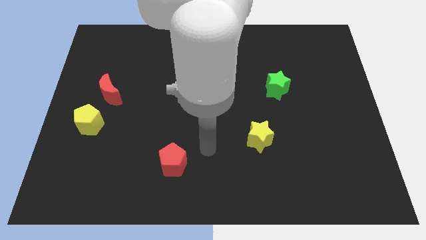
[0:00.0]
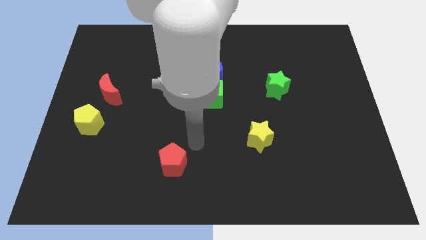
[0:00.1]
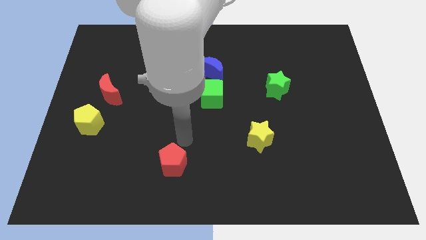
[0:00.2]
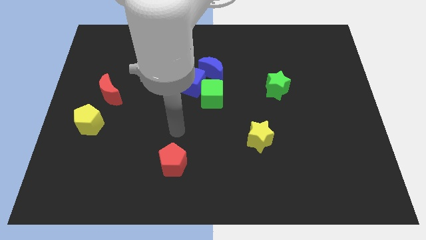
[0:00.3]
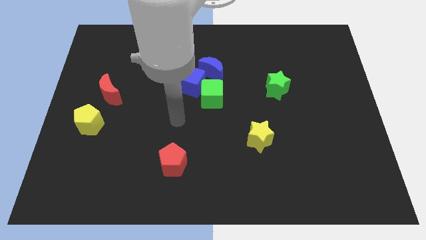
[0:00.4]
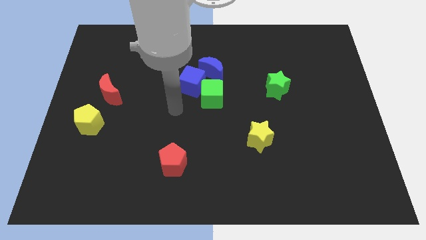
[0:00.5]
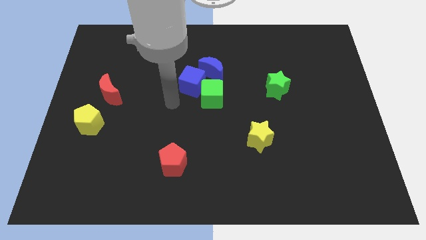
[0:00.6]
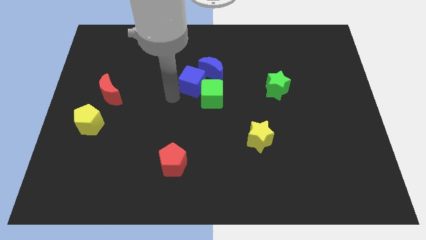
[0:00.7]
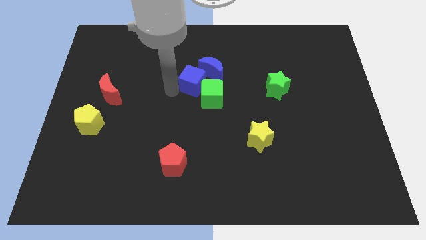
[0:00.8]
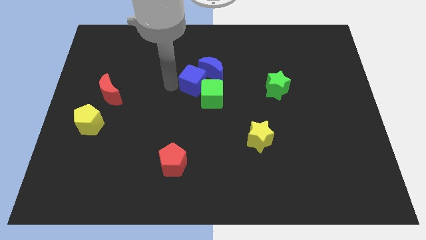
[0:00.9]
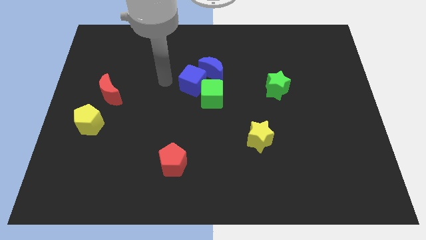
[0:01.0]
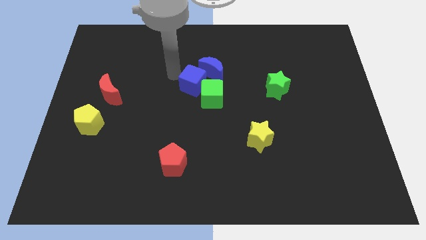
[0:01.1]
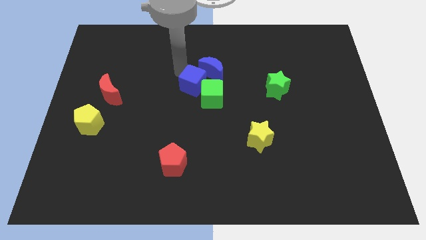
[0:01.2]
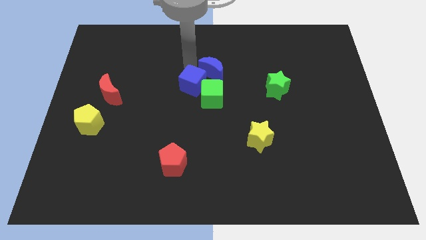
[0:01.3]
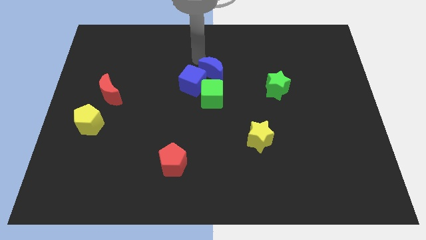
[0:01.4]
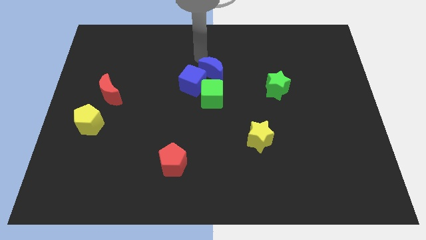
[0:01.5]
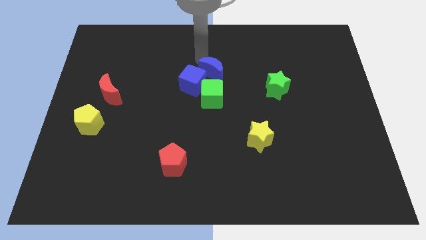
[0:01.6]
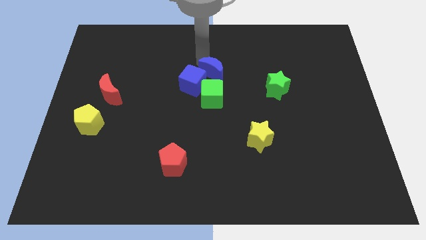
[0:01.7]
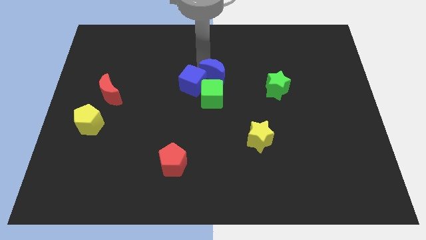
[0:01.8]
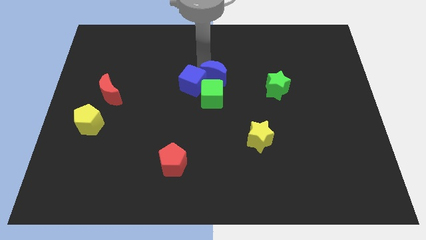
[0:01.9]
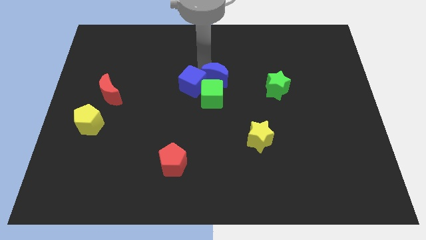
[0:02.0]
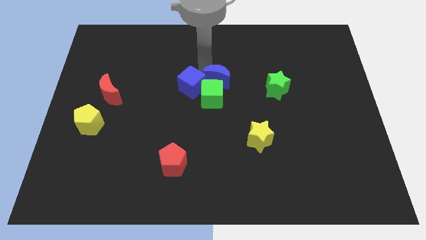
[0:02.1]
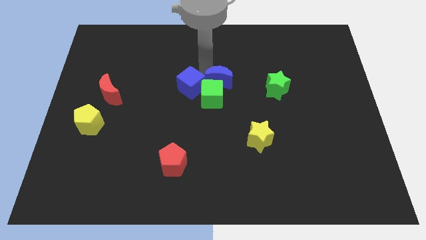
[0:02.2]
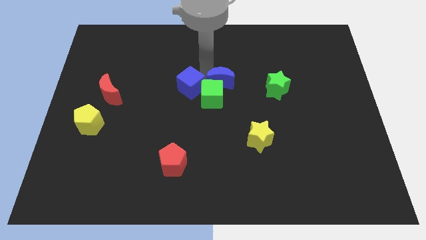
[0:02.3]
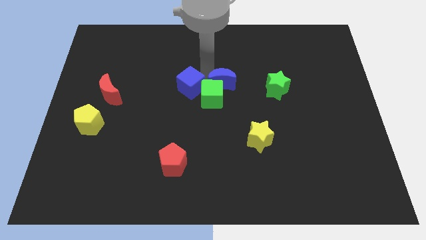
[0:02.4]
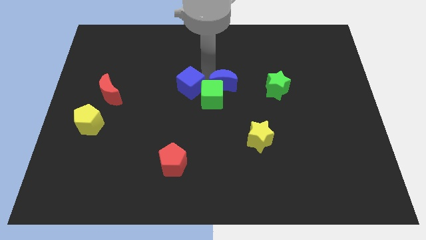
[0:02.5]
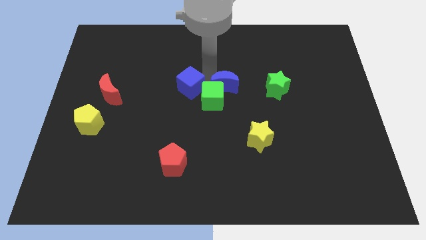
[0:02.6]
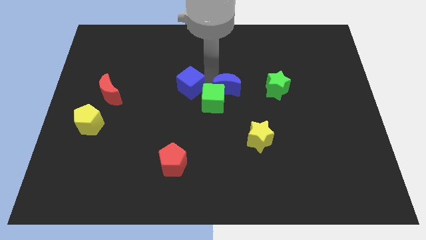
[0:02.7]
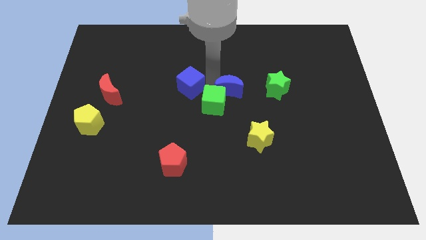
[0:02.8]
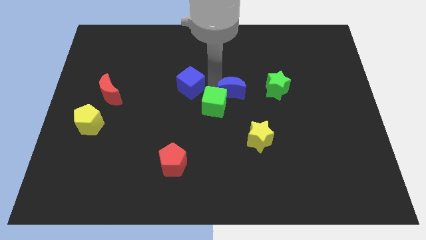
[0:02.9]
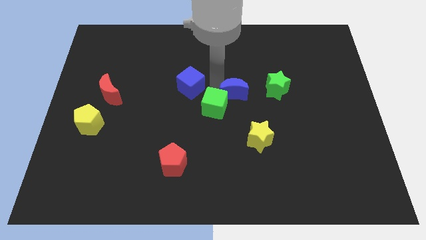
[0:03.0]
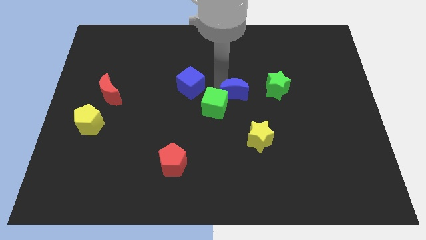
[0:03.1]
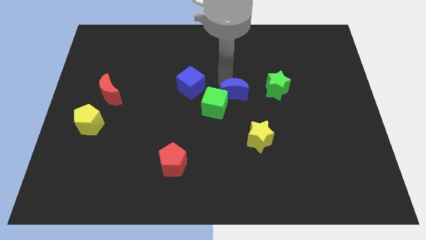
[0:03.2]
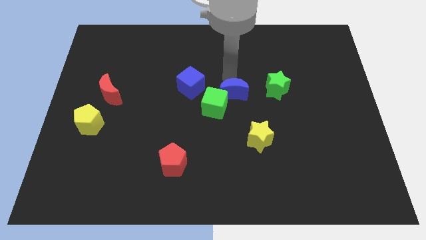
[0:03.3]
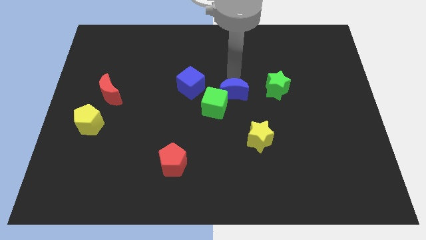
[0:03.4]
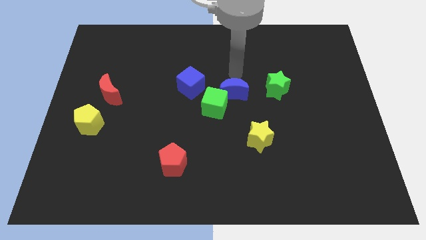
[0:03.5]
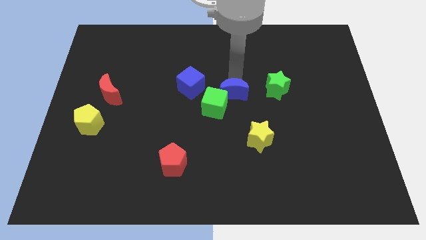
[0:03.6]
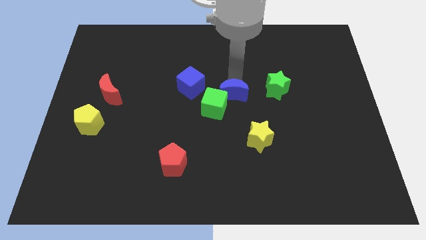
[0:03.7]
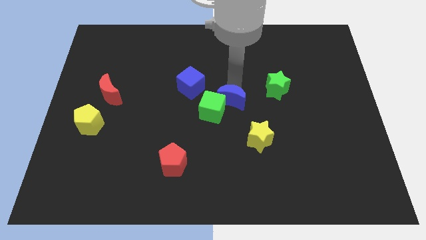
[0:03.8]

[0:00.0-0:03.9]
slightly move the blue moon downwards

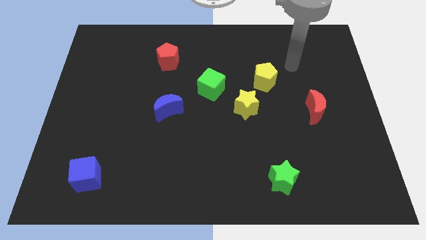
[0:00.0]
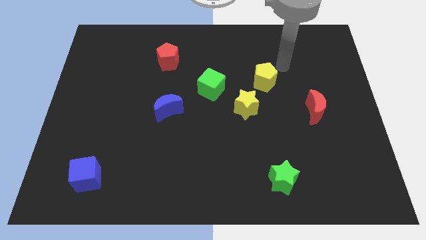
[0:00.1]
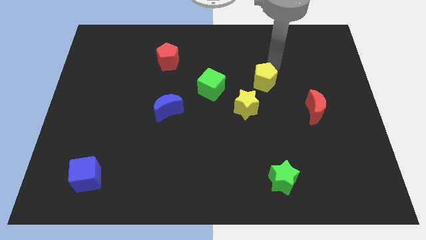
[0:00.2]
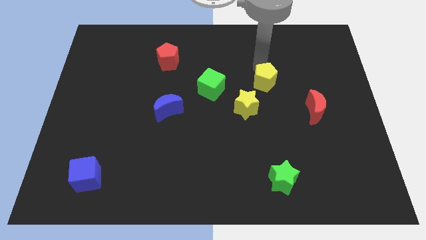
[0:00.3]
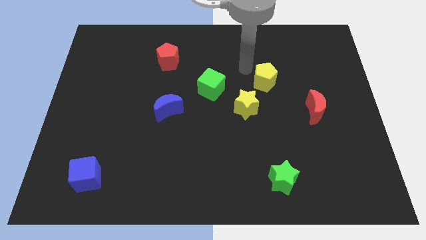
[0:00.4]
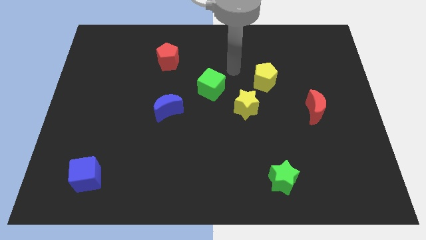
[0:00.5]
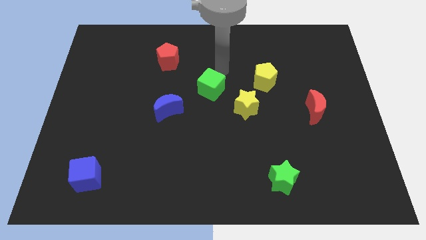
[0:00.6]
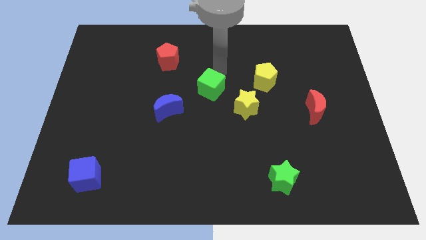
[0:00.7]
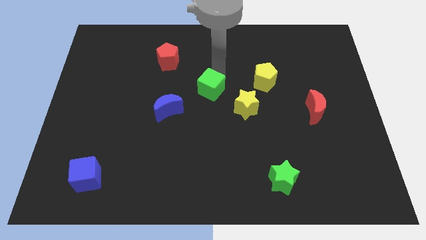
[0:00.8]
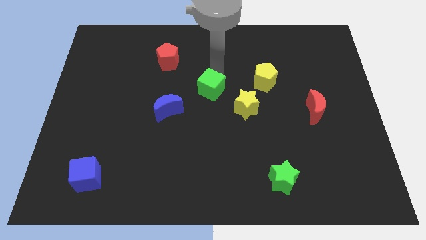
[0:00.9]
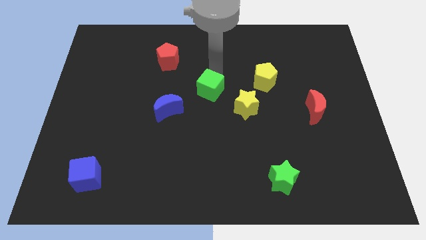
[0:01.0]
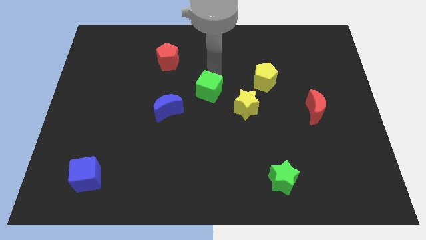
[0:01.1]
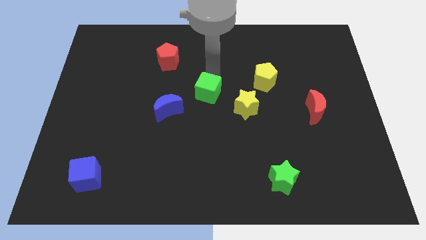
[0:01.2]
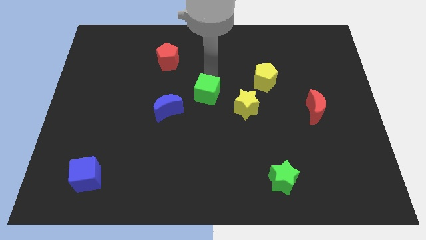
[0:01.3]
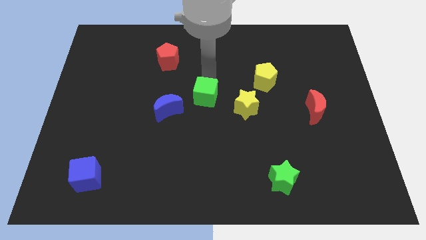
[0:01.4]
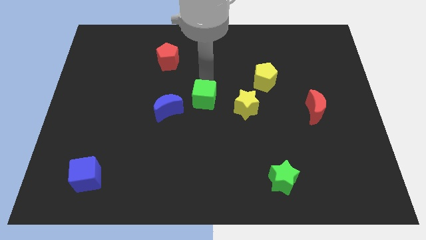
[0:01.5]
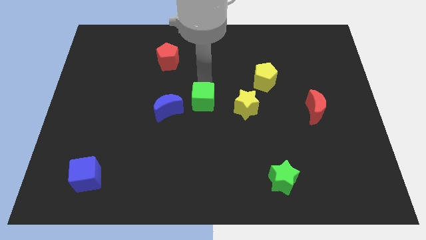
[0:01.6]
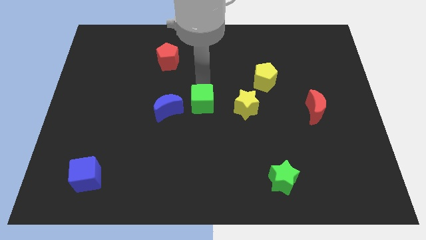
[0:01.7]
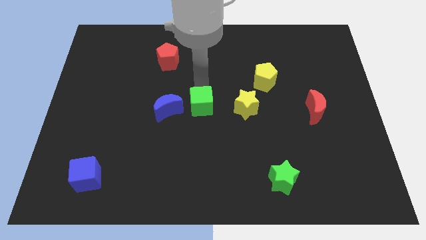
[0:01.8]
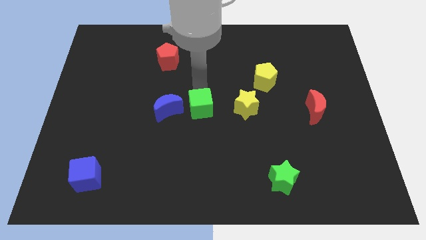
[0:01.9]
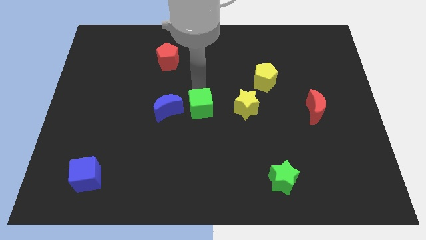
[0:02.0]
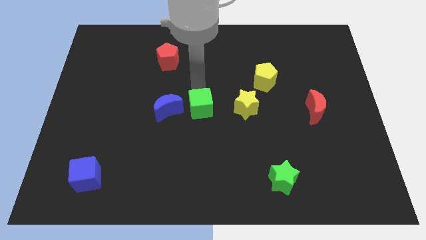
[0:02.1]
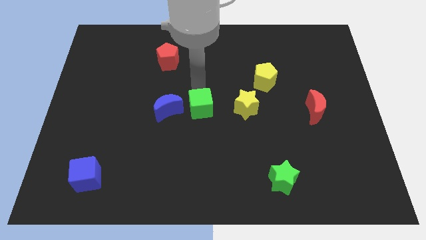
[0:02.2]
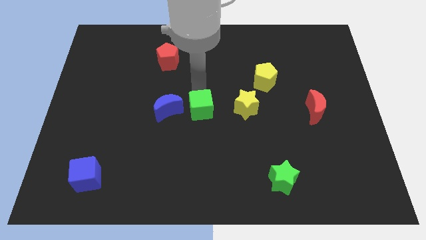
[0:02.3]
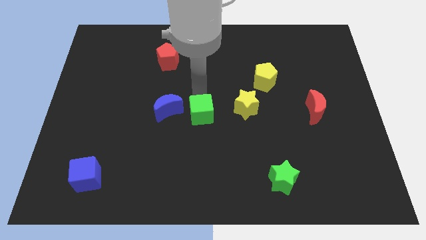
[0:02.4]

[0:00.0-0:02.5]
slightly slide the green cube down

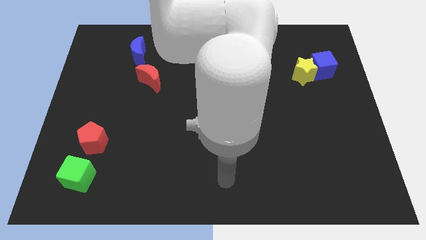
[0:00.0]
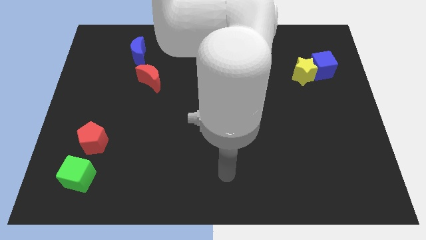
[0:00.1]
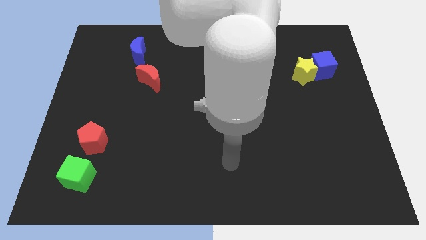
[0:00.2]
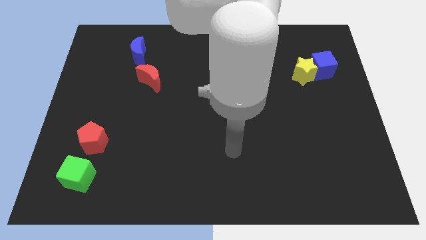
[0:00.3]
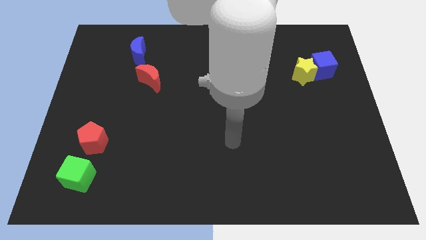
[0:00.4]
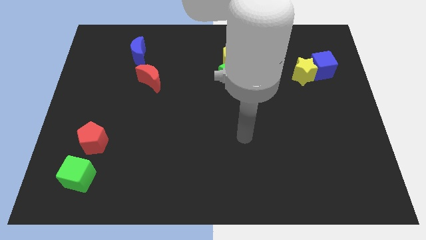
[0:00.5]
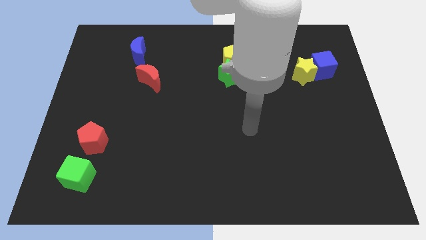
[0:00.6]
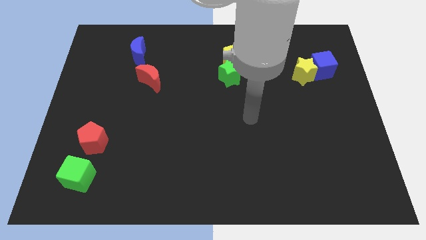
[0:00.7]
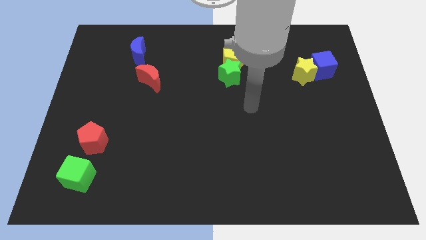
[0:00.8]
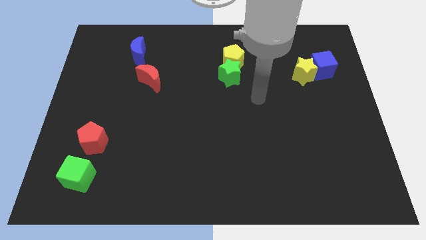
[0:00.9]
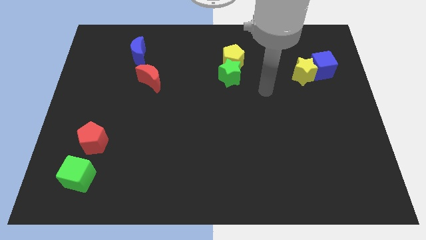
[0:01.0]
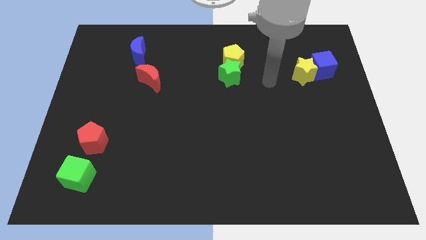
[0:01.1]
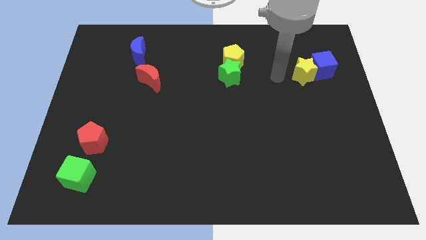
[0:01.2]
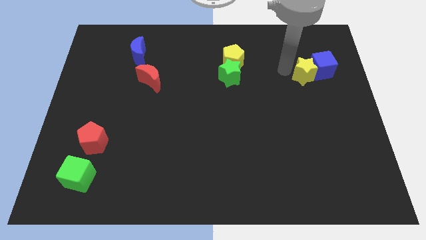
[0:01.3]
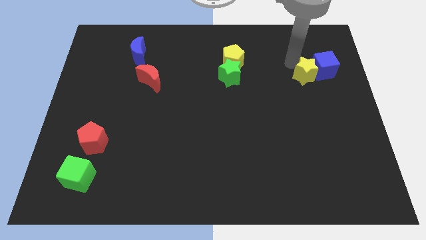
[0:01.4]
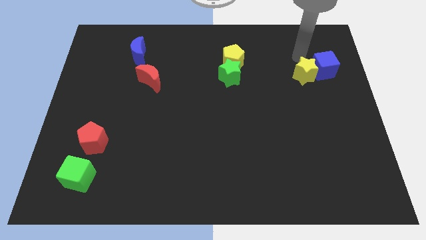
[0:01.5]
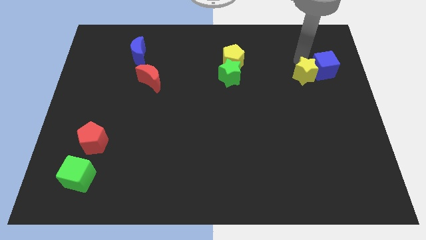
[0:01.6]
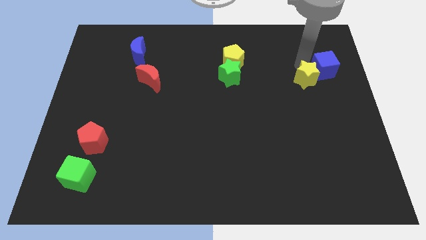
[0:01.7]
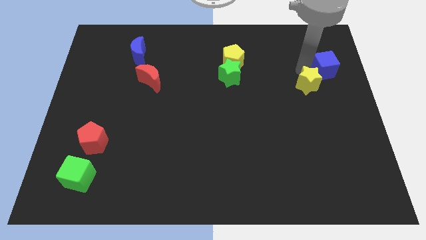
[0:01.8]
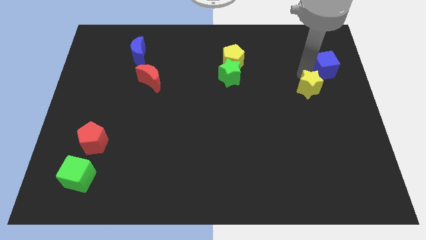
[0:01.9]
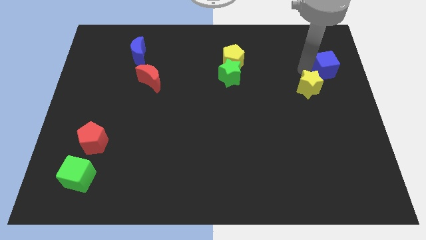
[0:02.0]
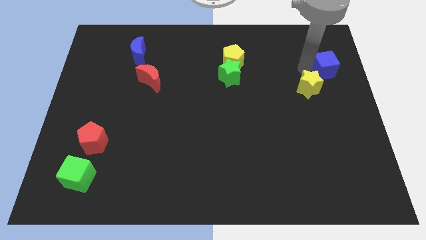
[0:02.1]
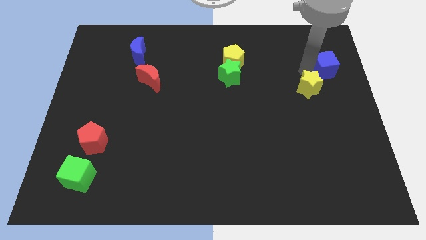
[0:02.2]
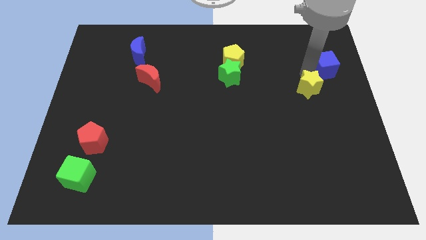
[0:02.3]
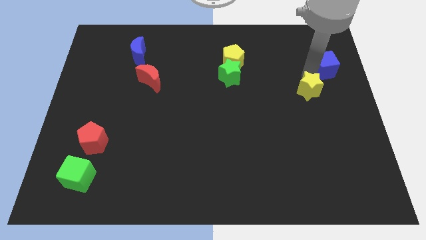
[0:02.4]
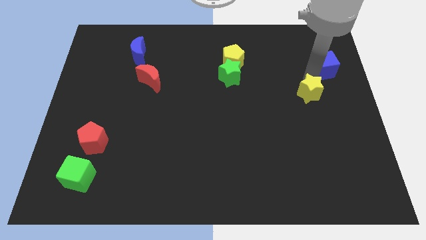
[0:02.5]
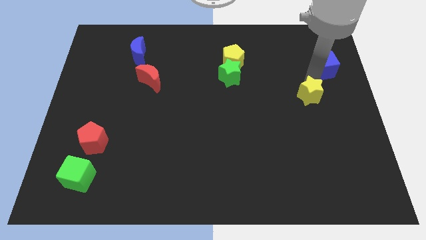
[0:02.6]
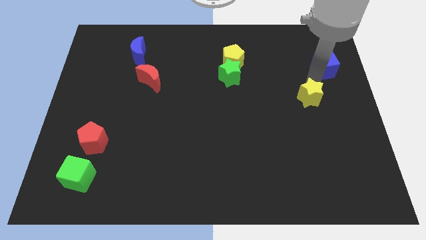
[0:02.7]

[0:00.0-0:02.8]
push the yellow star downwards somewhat
